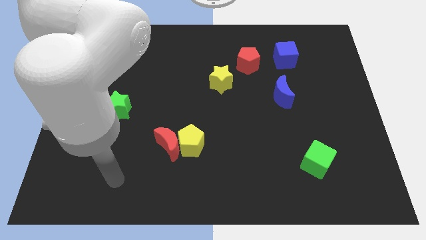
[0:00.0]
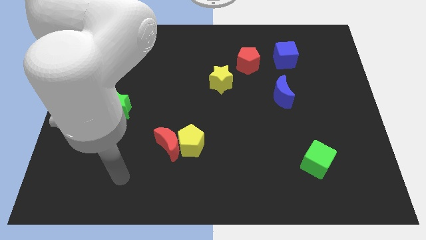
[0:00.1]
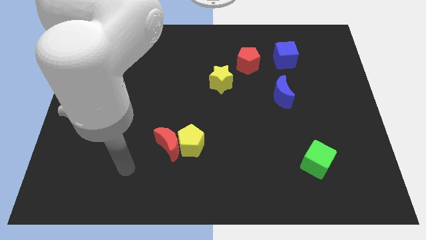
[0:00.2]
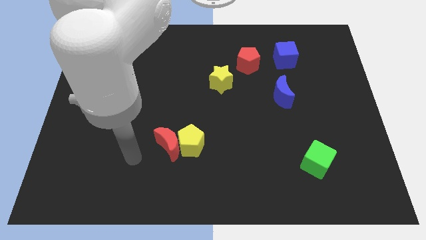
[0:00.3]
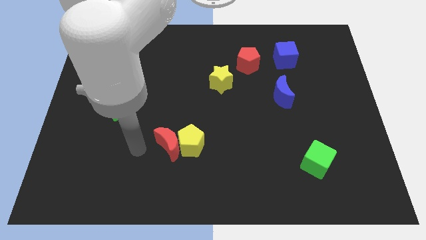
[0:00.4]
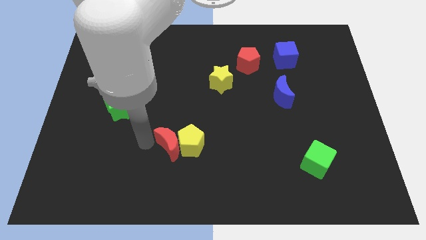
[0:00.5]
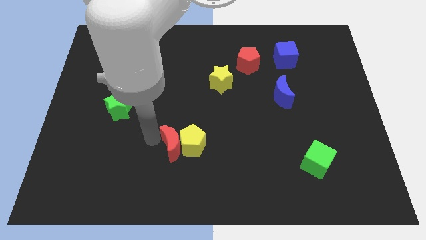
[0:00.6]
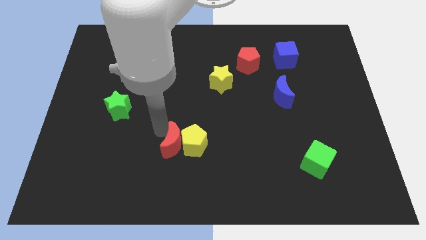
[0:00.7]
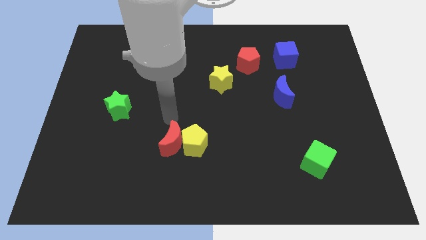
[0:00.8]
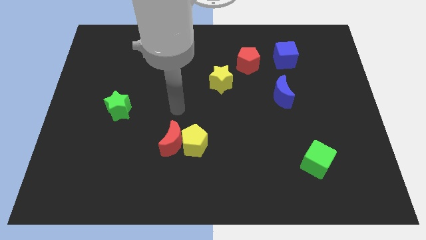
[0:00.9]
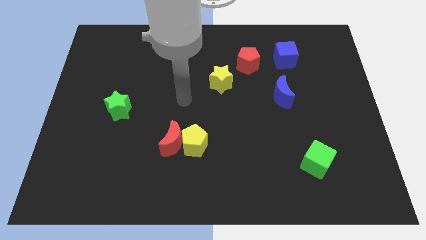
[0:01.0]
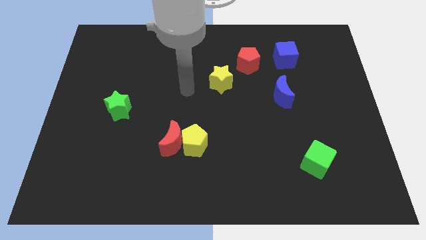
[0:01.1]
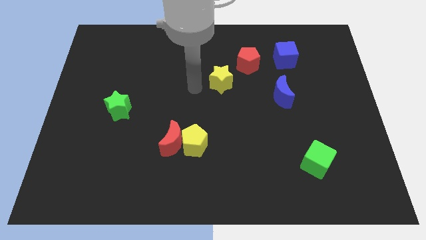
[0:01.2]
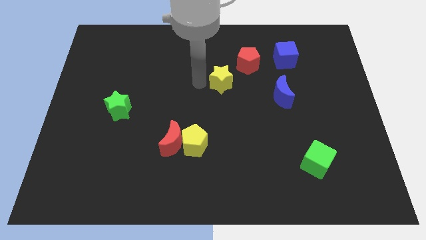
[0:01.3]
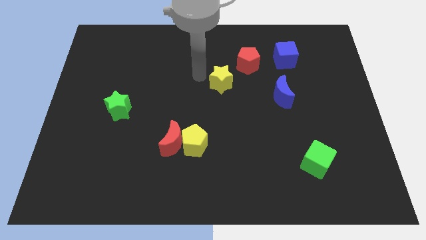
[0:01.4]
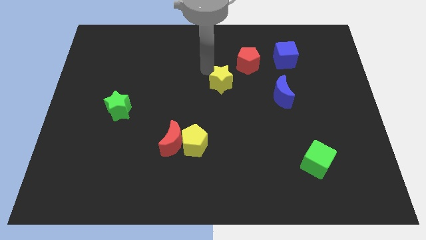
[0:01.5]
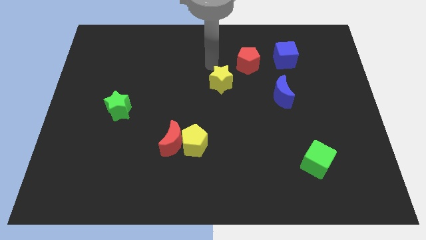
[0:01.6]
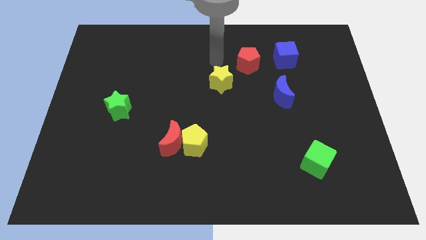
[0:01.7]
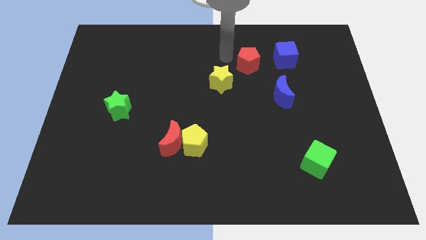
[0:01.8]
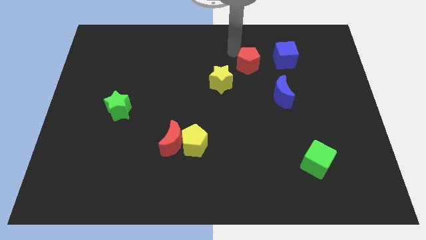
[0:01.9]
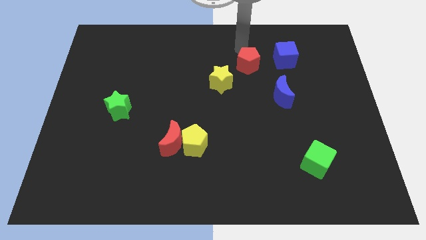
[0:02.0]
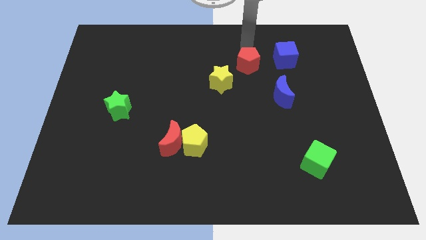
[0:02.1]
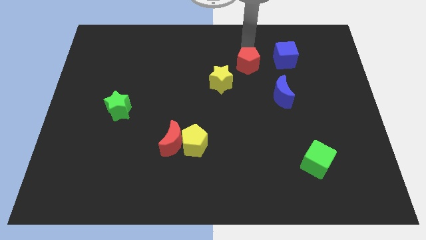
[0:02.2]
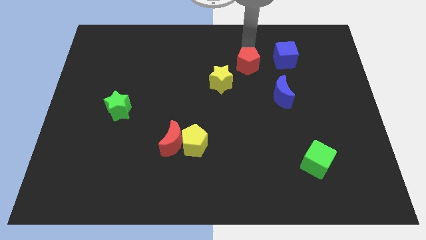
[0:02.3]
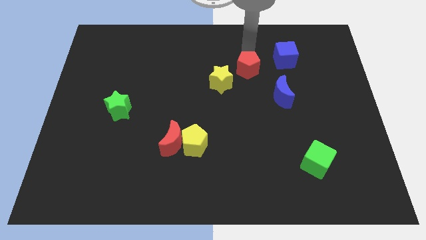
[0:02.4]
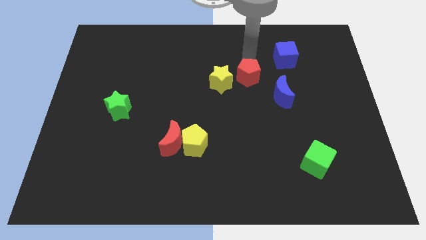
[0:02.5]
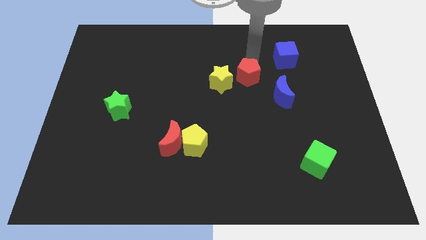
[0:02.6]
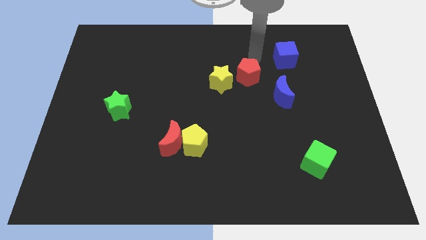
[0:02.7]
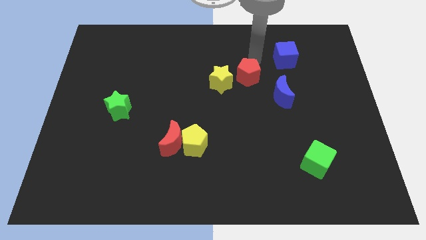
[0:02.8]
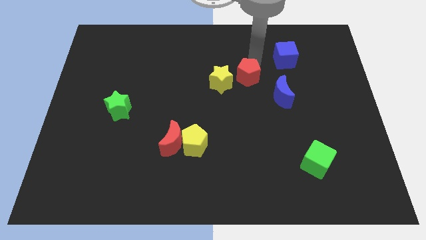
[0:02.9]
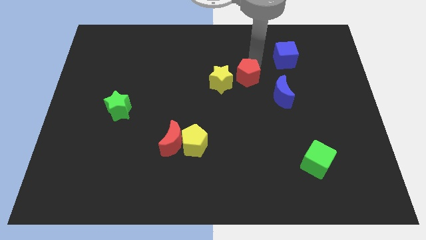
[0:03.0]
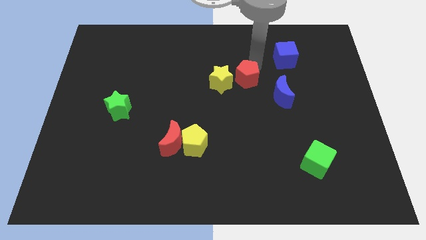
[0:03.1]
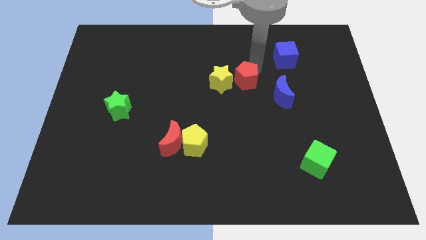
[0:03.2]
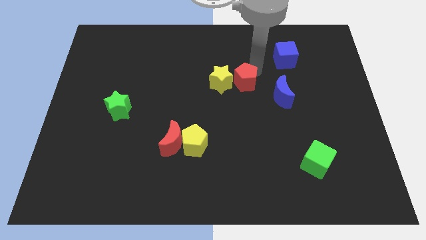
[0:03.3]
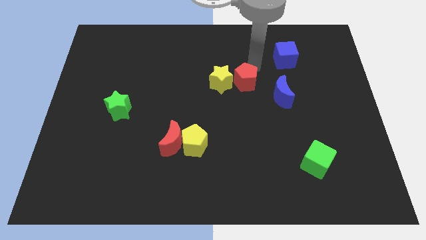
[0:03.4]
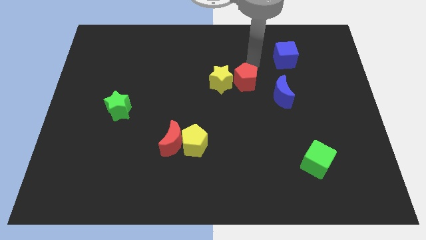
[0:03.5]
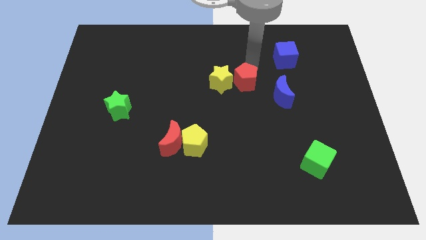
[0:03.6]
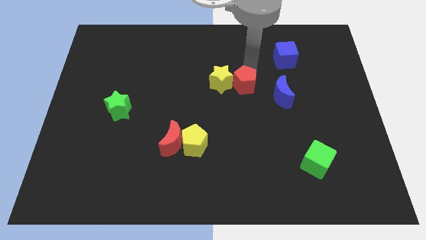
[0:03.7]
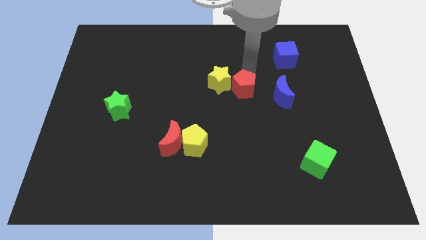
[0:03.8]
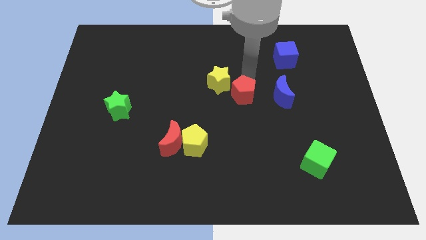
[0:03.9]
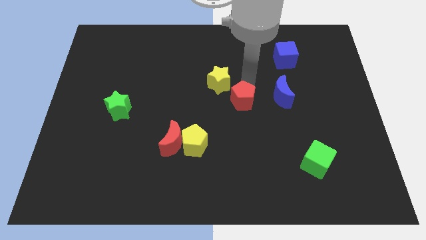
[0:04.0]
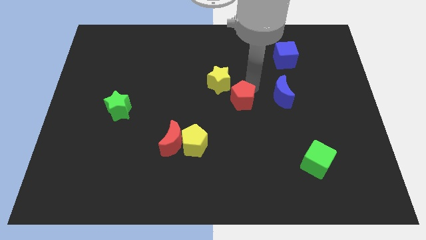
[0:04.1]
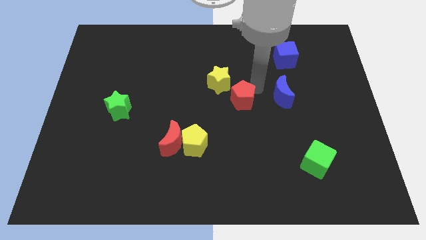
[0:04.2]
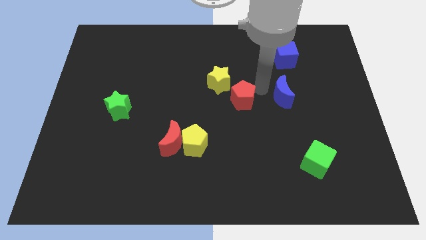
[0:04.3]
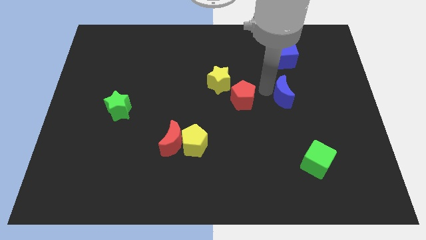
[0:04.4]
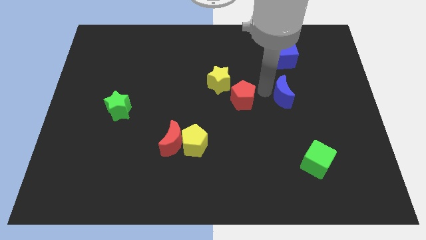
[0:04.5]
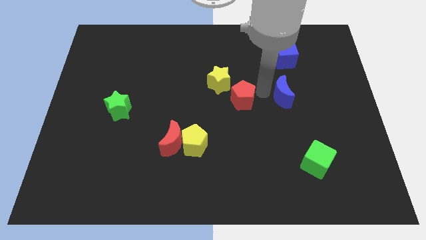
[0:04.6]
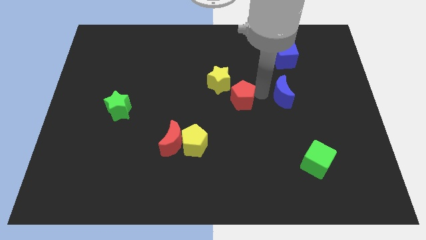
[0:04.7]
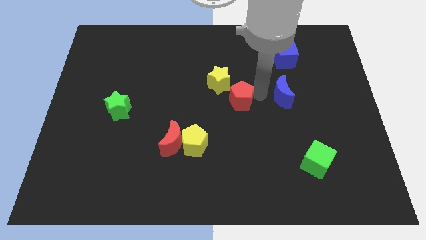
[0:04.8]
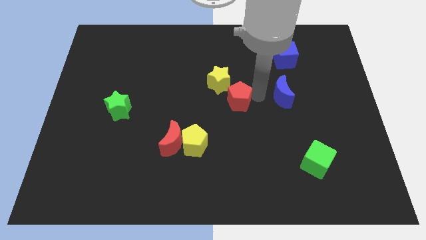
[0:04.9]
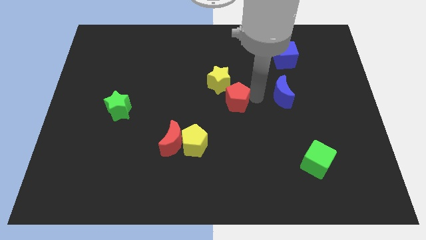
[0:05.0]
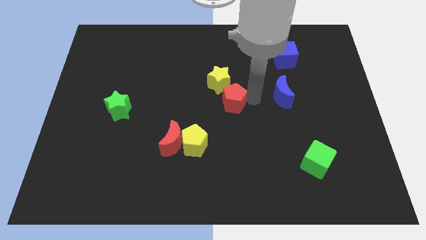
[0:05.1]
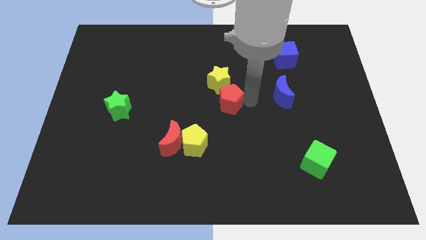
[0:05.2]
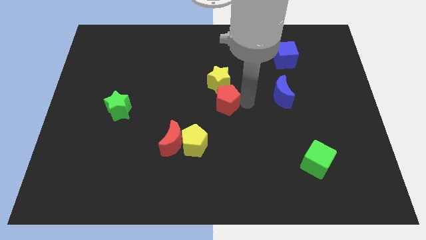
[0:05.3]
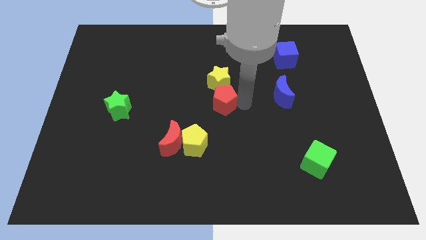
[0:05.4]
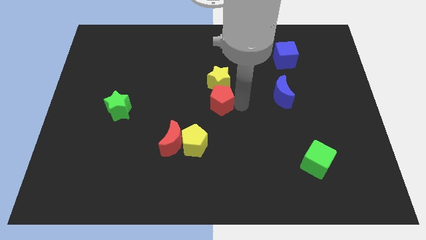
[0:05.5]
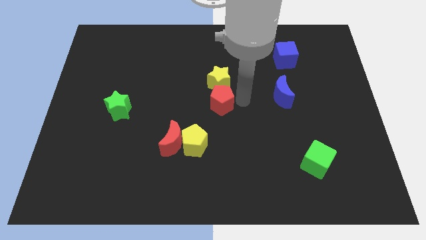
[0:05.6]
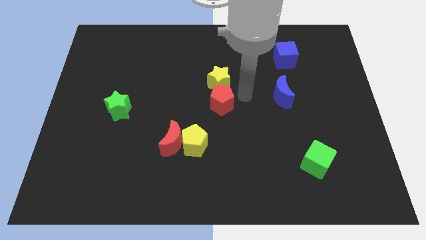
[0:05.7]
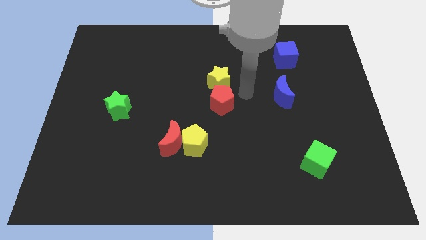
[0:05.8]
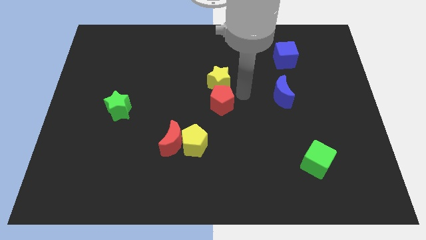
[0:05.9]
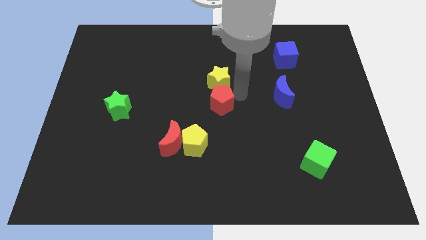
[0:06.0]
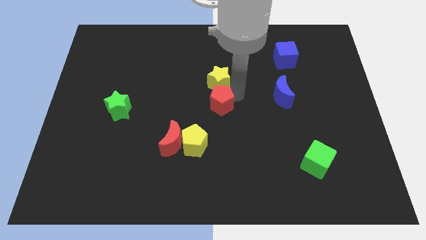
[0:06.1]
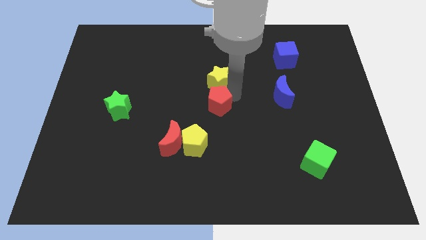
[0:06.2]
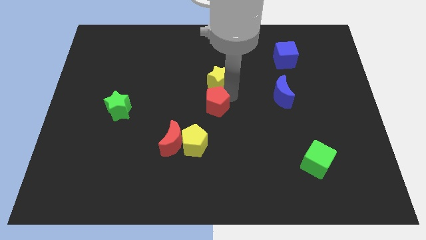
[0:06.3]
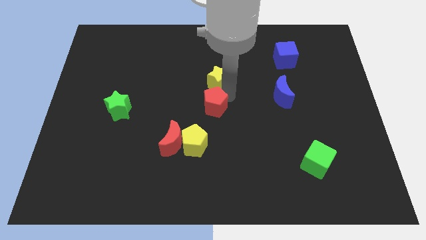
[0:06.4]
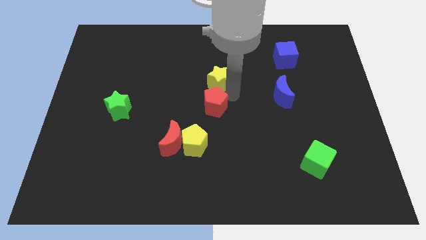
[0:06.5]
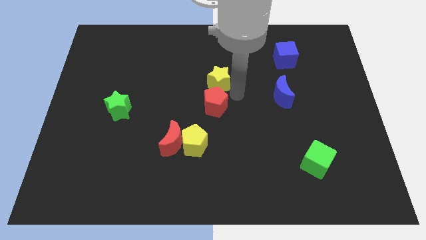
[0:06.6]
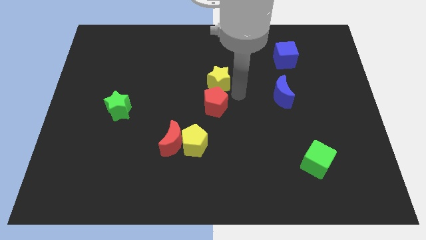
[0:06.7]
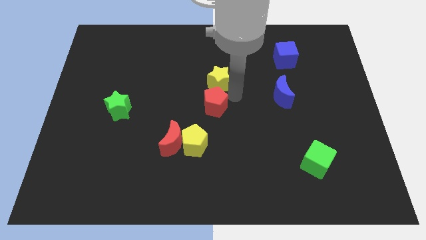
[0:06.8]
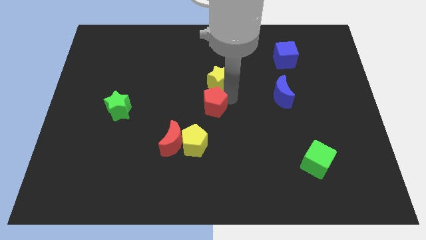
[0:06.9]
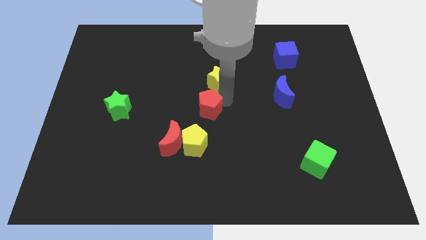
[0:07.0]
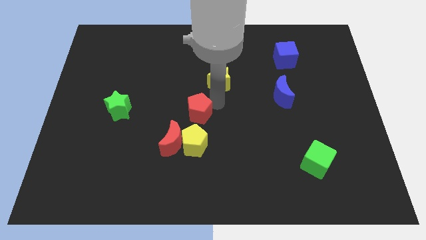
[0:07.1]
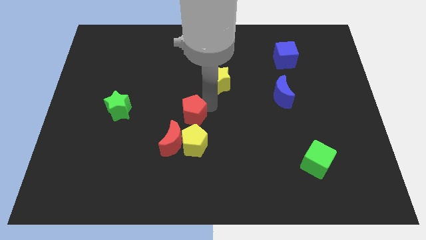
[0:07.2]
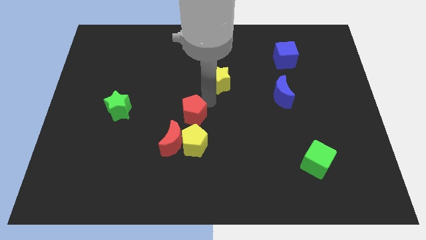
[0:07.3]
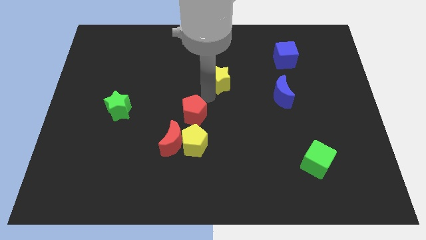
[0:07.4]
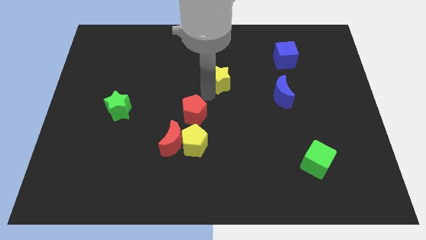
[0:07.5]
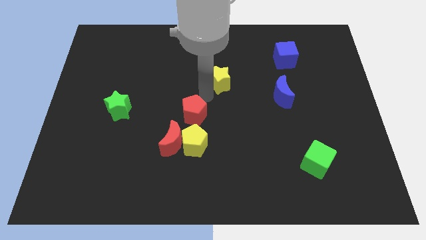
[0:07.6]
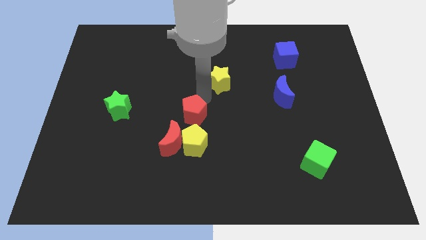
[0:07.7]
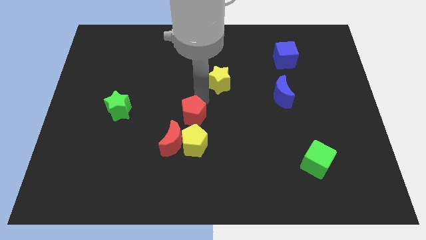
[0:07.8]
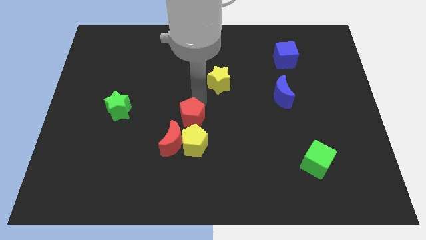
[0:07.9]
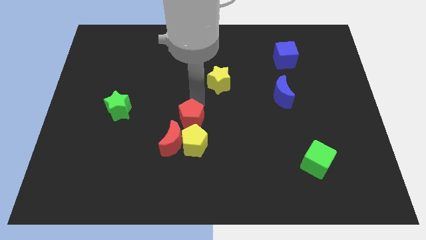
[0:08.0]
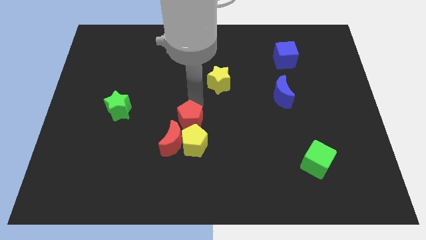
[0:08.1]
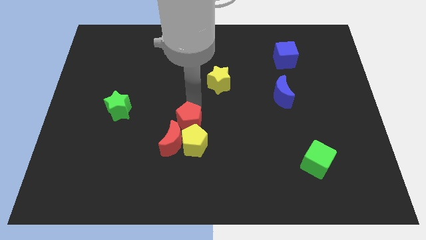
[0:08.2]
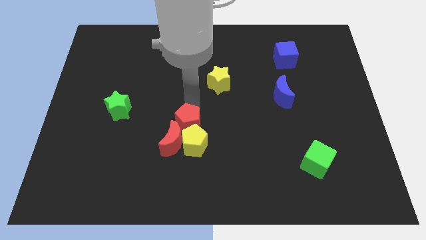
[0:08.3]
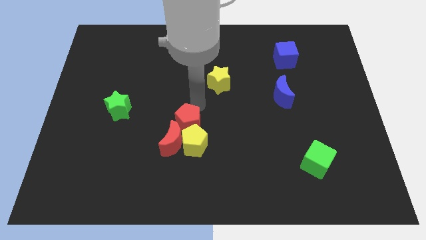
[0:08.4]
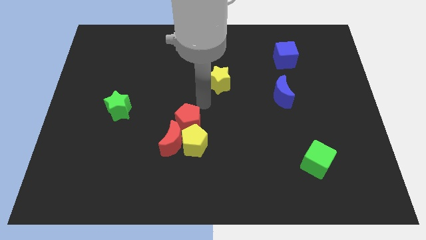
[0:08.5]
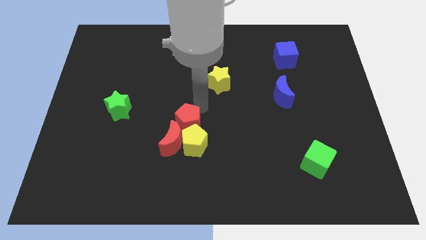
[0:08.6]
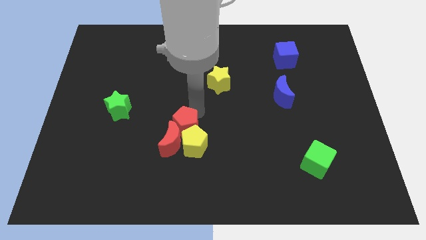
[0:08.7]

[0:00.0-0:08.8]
move the red pentagon next to the red moon
